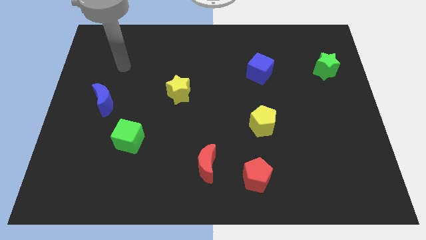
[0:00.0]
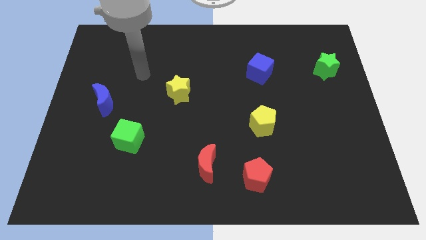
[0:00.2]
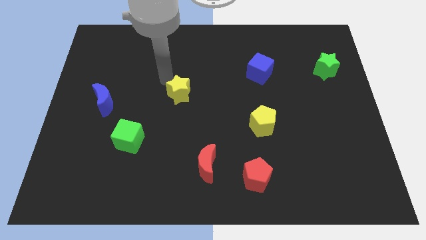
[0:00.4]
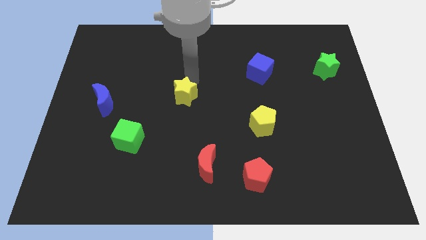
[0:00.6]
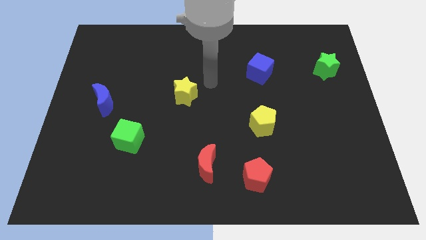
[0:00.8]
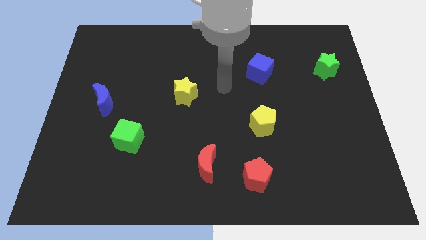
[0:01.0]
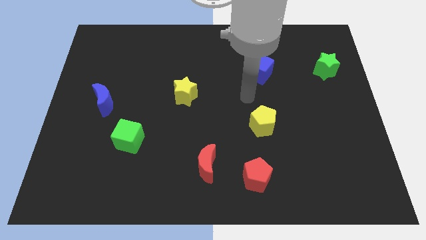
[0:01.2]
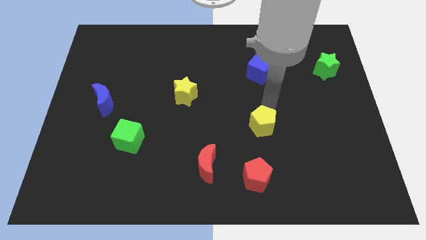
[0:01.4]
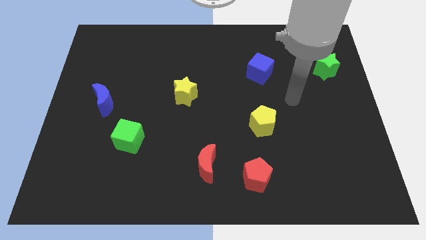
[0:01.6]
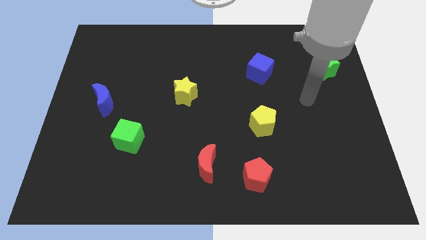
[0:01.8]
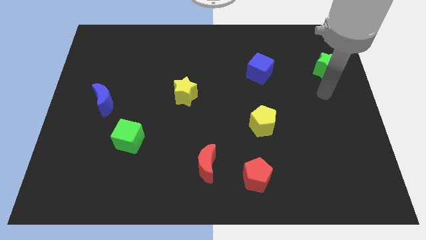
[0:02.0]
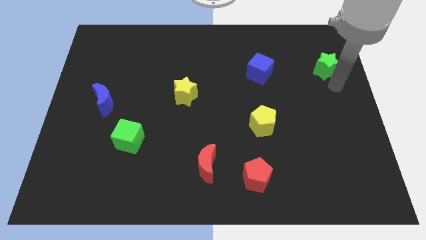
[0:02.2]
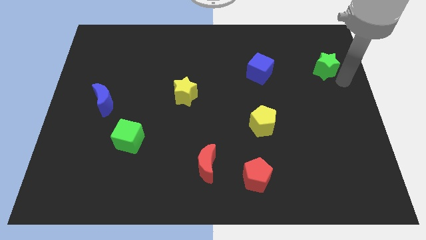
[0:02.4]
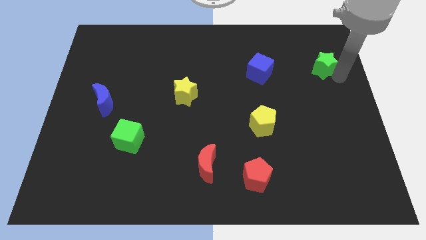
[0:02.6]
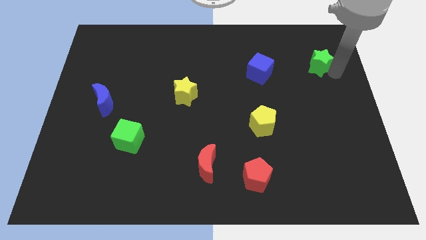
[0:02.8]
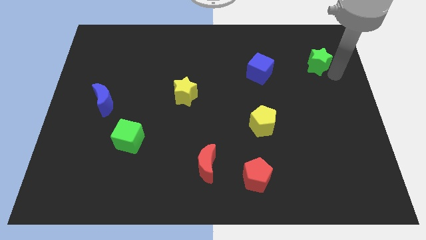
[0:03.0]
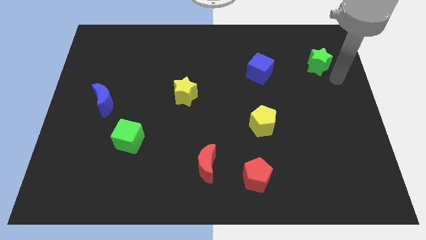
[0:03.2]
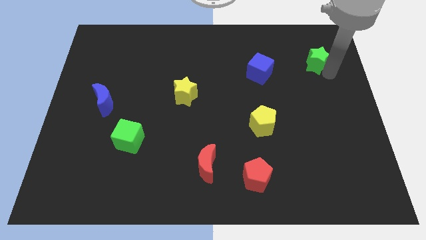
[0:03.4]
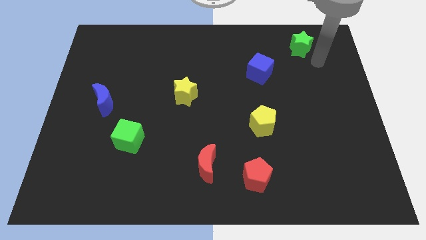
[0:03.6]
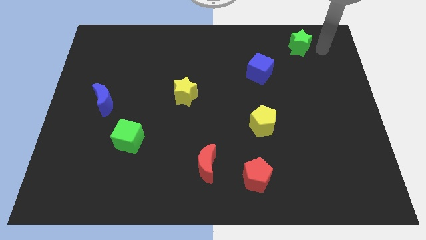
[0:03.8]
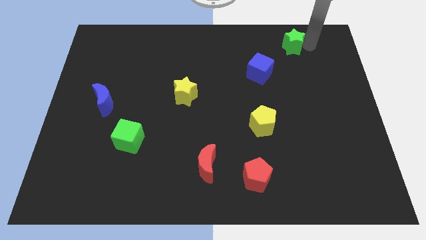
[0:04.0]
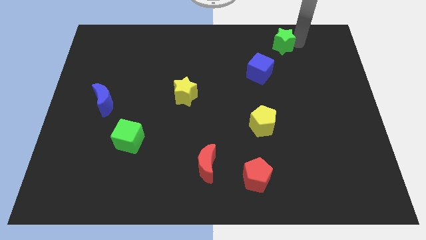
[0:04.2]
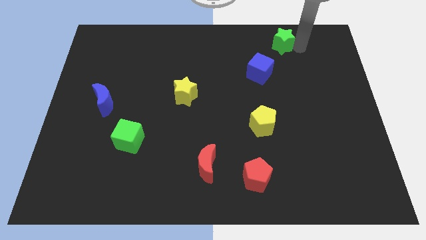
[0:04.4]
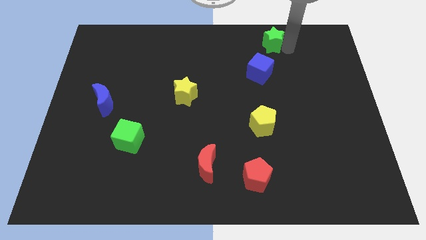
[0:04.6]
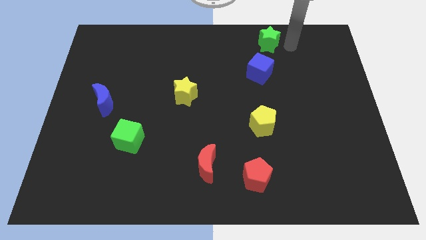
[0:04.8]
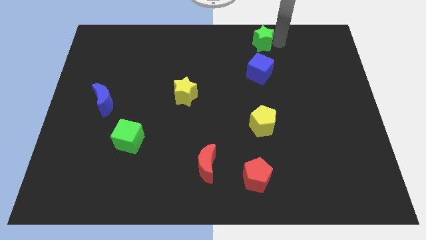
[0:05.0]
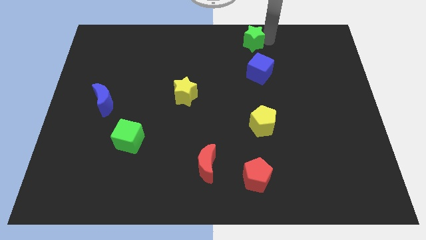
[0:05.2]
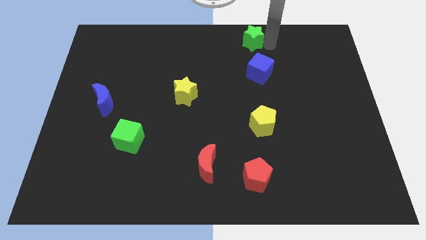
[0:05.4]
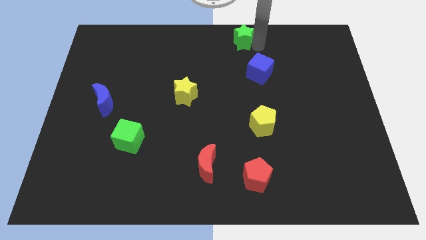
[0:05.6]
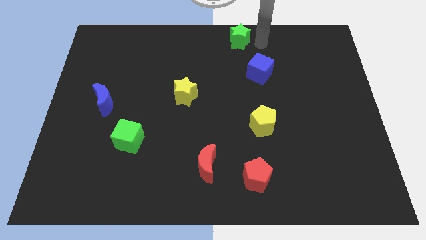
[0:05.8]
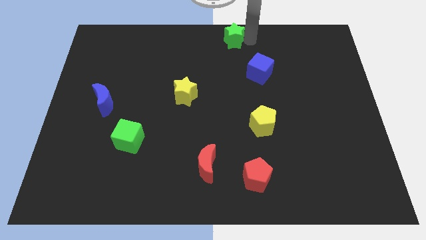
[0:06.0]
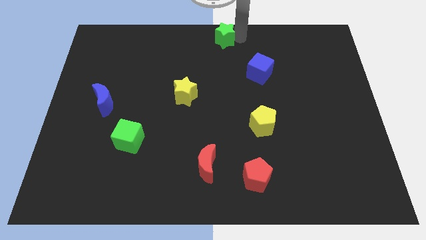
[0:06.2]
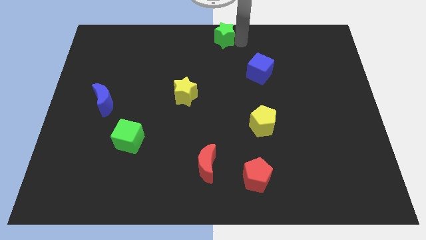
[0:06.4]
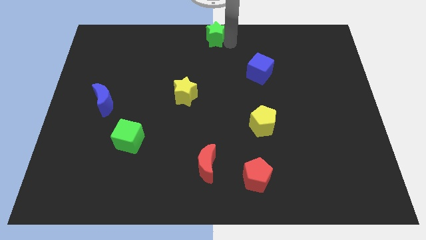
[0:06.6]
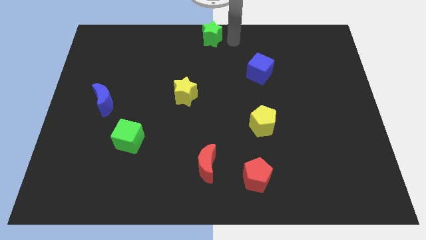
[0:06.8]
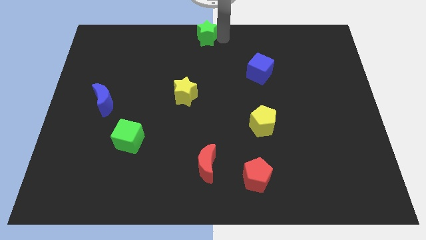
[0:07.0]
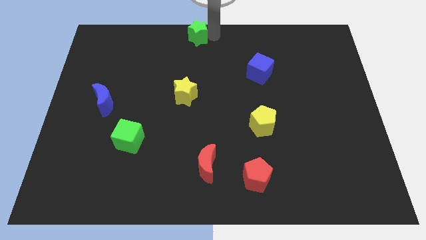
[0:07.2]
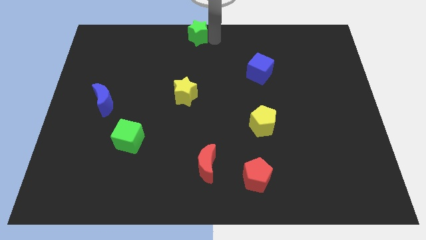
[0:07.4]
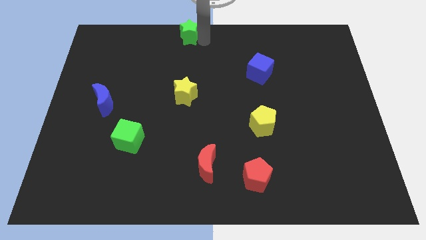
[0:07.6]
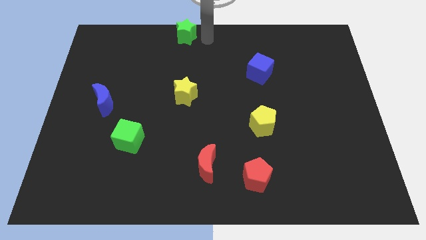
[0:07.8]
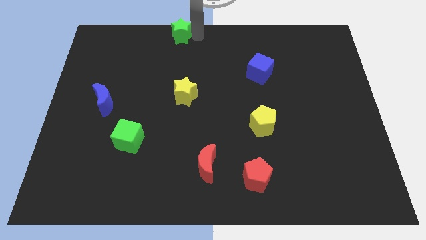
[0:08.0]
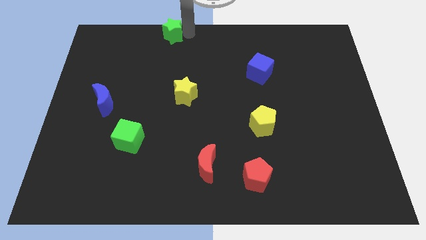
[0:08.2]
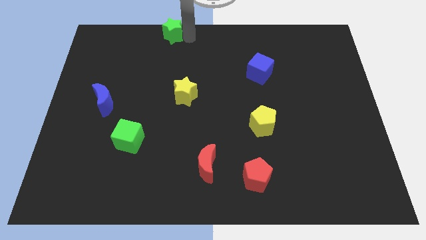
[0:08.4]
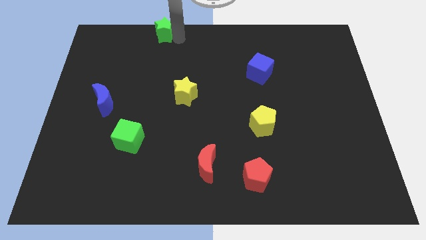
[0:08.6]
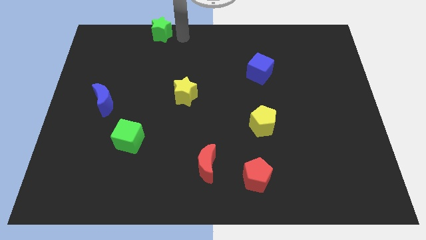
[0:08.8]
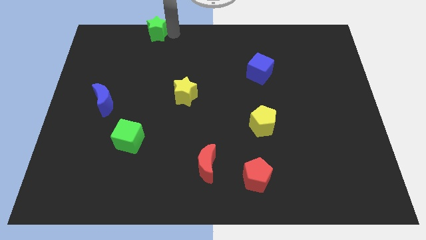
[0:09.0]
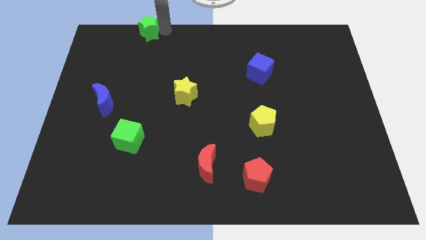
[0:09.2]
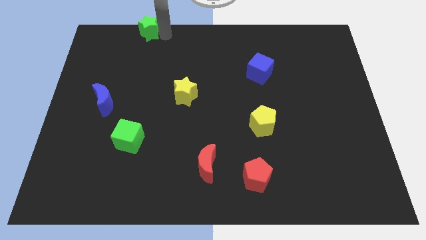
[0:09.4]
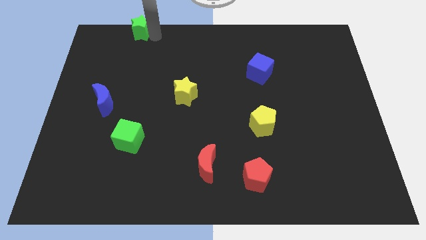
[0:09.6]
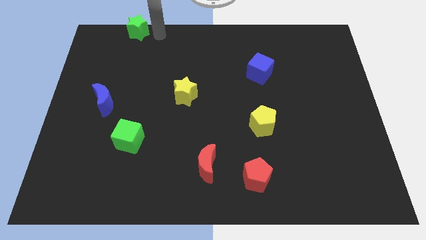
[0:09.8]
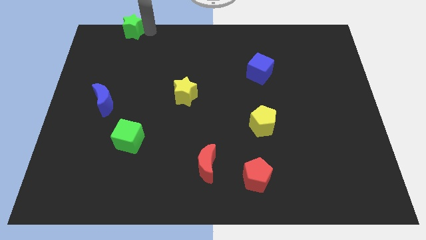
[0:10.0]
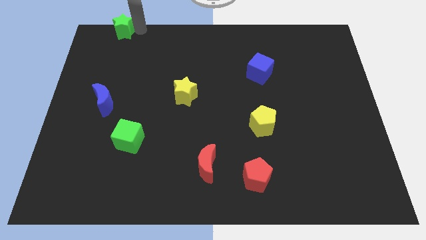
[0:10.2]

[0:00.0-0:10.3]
move the green star to the top left corner

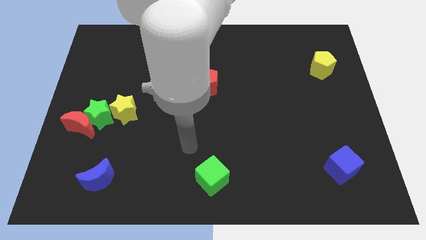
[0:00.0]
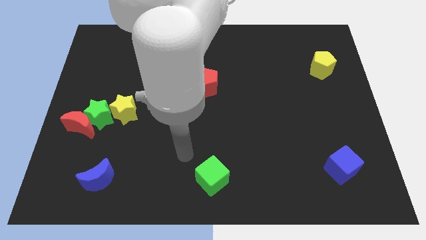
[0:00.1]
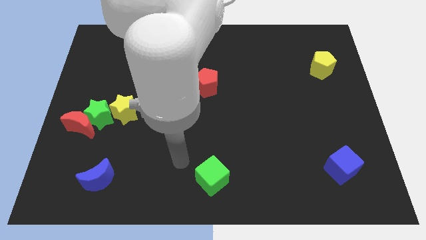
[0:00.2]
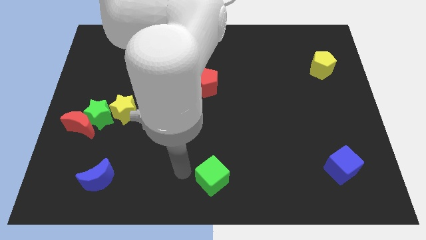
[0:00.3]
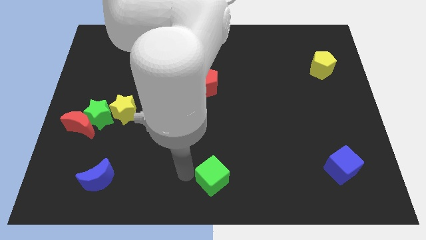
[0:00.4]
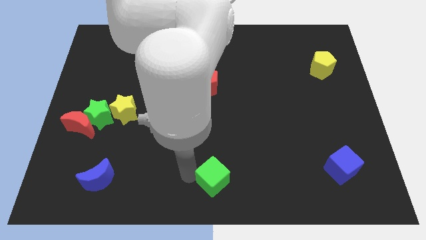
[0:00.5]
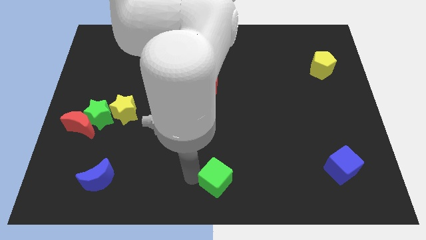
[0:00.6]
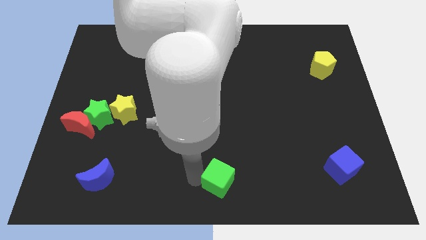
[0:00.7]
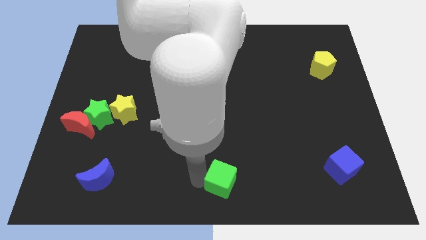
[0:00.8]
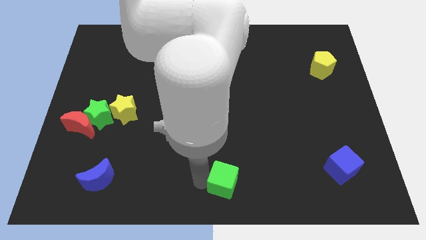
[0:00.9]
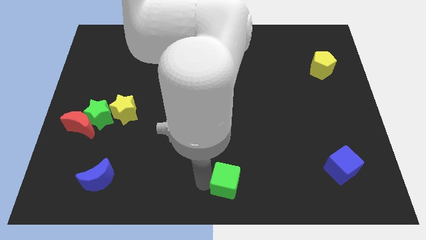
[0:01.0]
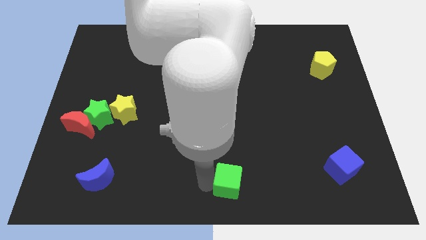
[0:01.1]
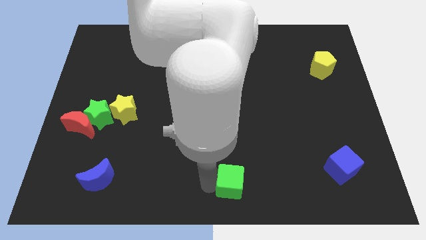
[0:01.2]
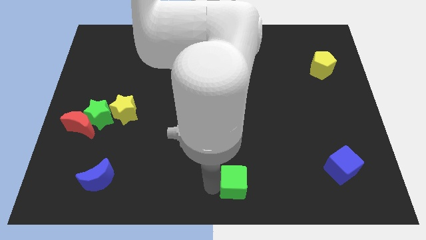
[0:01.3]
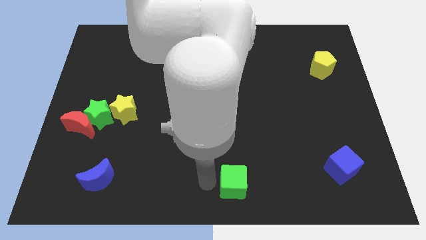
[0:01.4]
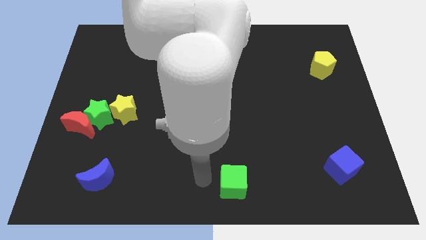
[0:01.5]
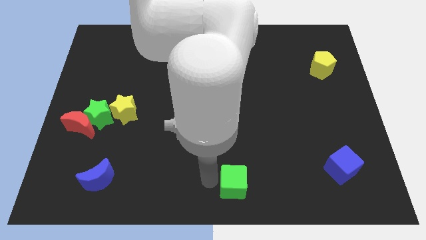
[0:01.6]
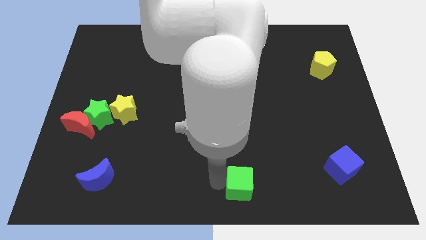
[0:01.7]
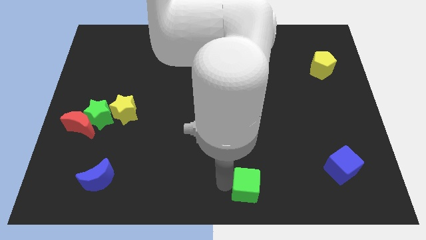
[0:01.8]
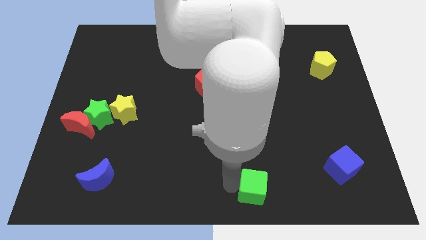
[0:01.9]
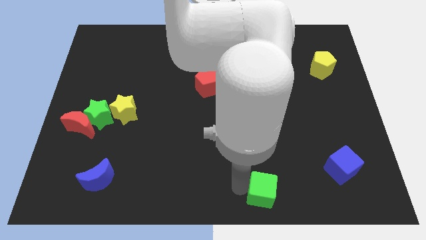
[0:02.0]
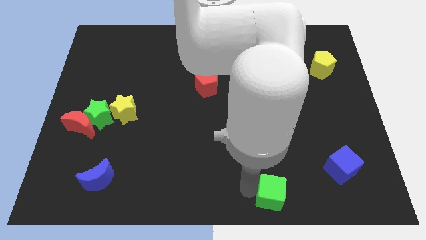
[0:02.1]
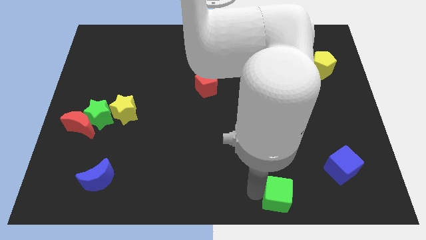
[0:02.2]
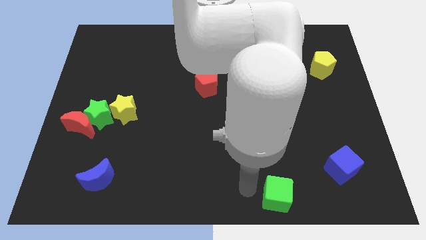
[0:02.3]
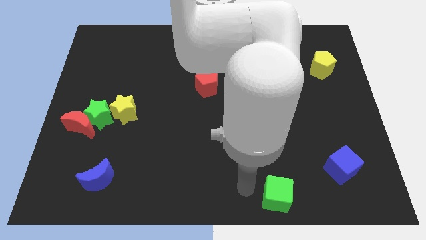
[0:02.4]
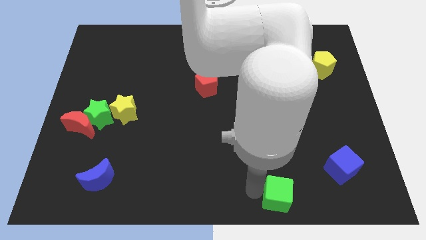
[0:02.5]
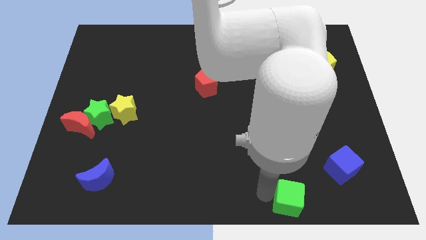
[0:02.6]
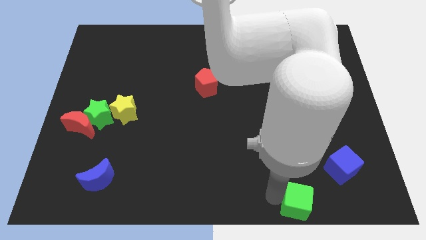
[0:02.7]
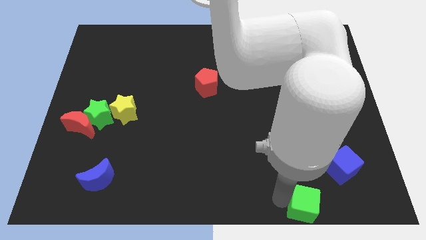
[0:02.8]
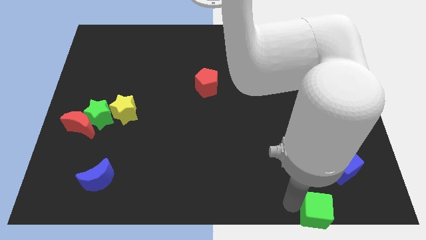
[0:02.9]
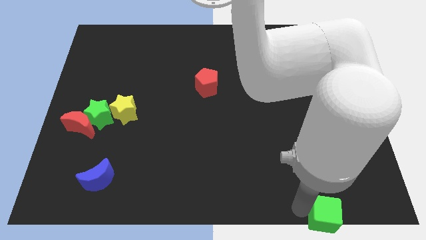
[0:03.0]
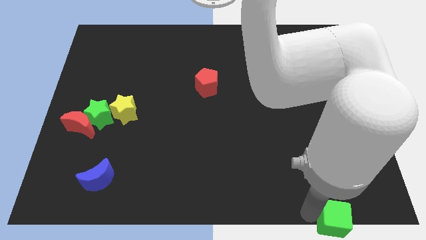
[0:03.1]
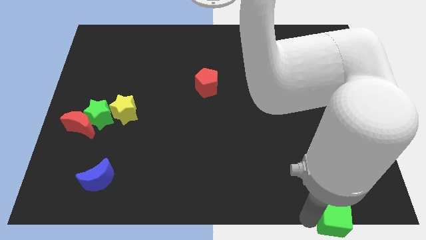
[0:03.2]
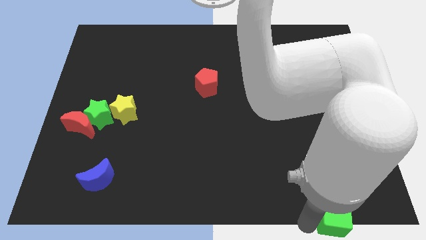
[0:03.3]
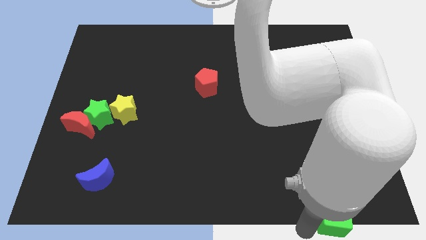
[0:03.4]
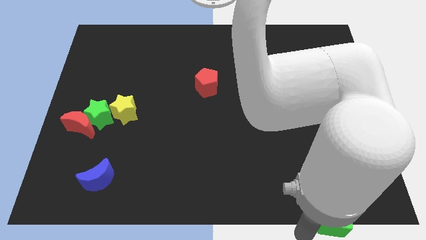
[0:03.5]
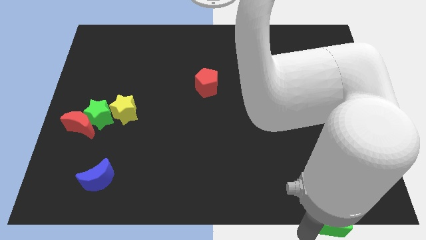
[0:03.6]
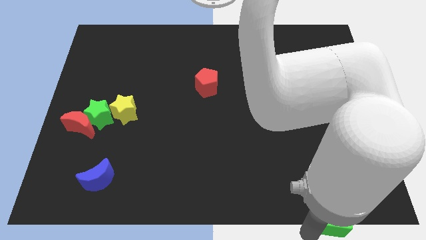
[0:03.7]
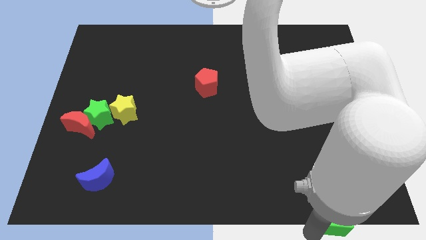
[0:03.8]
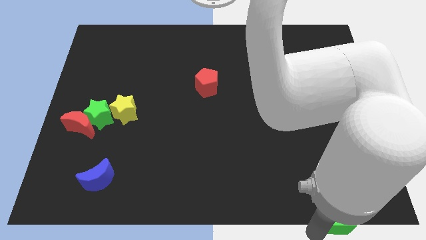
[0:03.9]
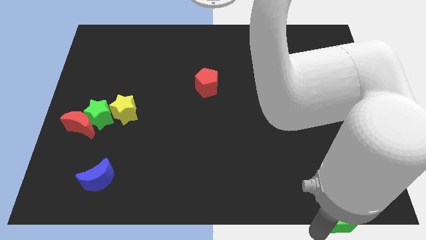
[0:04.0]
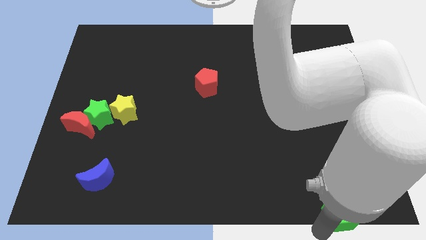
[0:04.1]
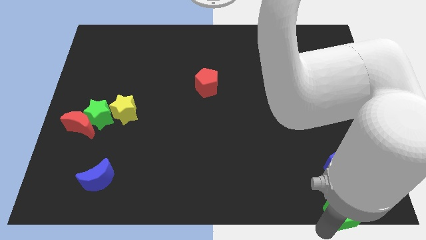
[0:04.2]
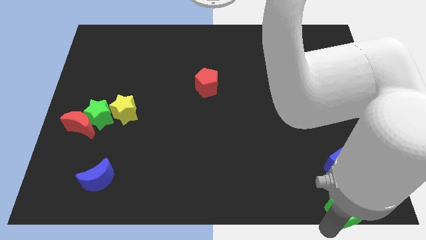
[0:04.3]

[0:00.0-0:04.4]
slide the green cube to the bottom right of the board
